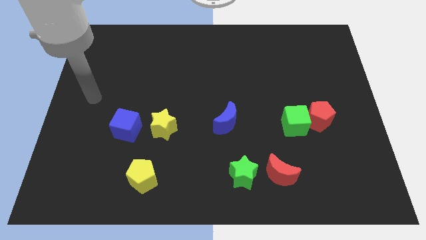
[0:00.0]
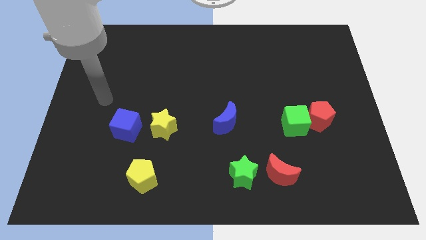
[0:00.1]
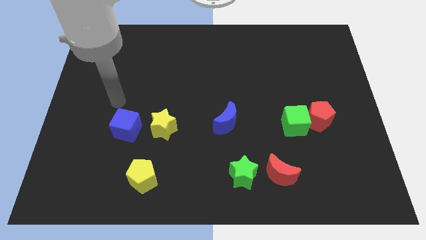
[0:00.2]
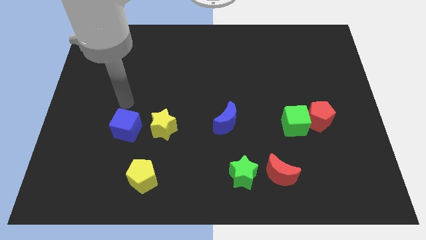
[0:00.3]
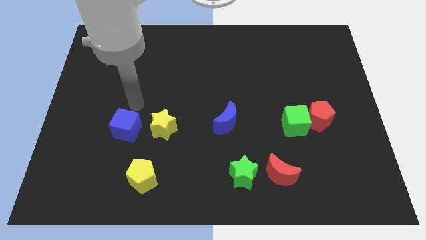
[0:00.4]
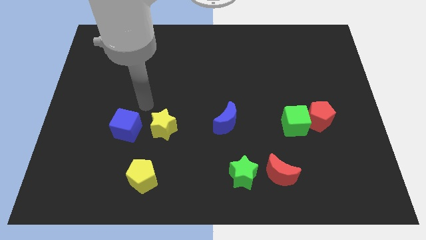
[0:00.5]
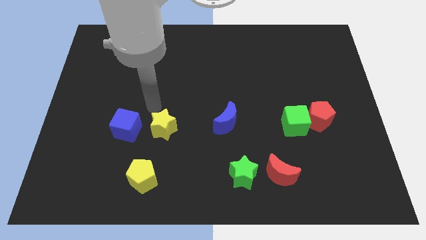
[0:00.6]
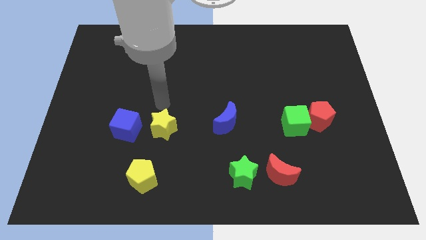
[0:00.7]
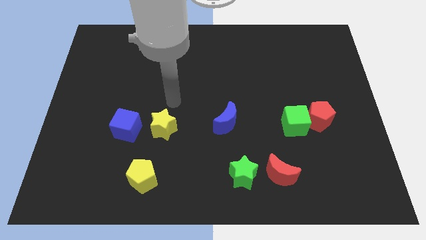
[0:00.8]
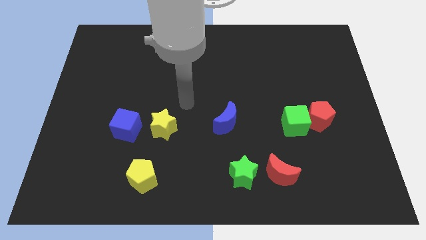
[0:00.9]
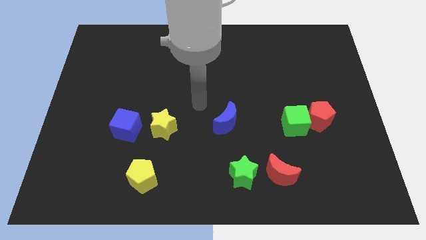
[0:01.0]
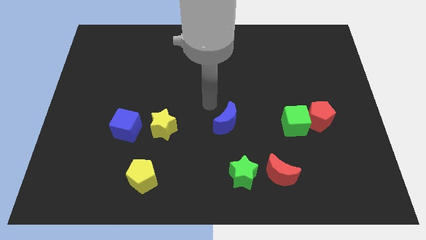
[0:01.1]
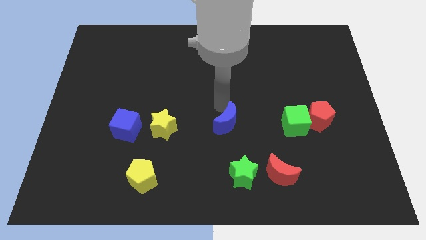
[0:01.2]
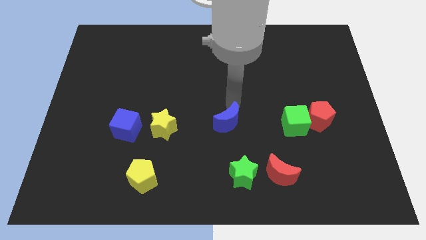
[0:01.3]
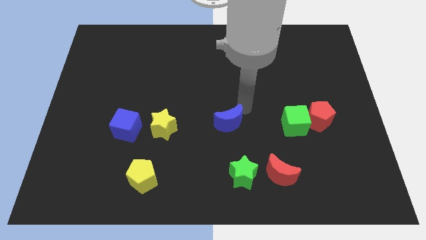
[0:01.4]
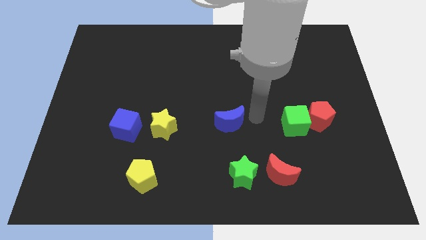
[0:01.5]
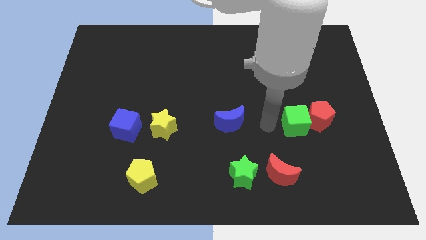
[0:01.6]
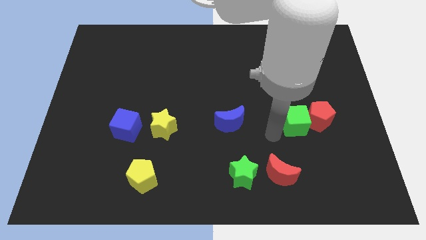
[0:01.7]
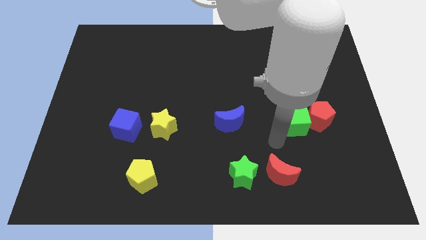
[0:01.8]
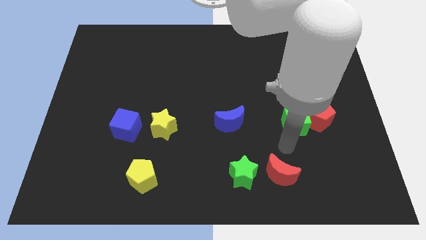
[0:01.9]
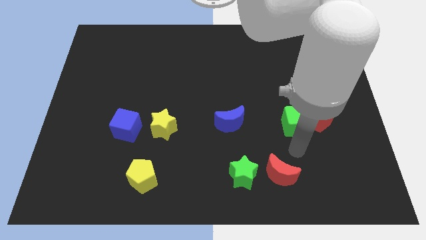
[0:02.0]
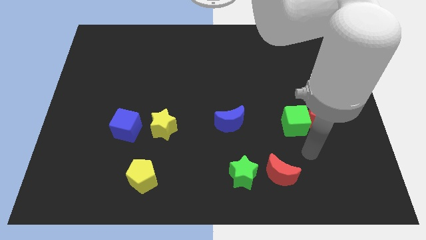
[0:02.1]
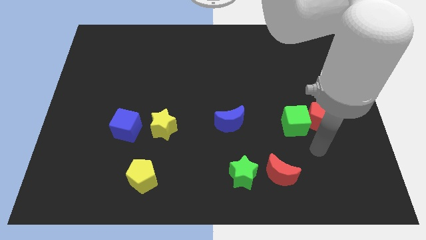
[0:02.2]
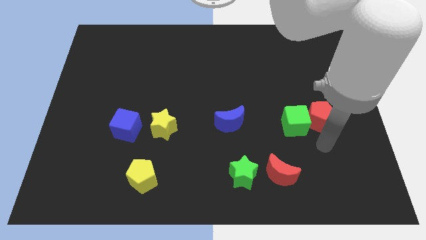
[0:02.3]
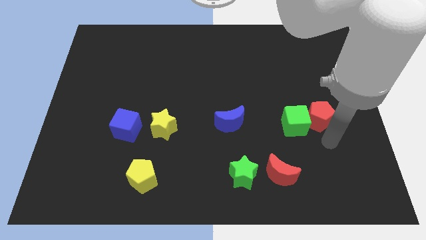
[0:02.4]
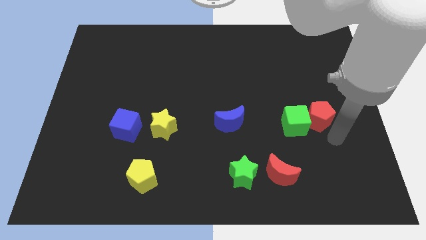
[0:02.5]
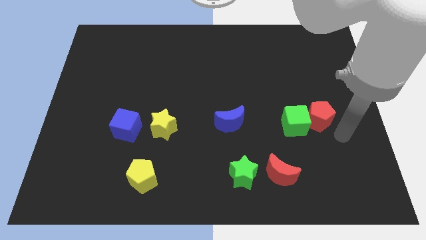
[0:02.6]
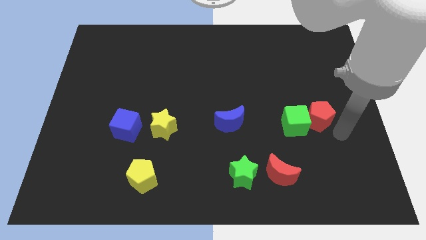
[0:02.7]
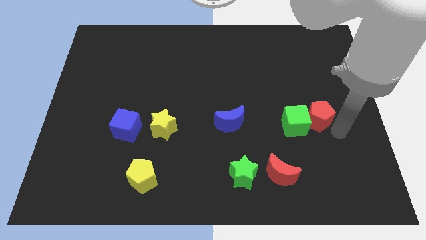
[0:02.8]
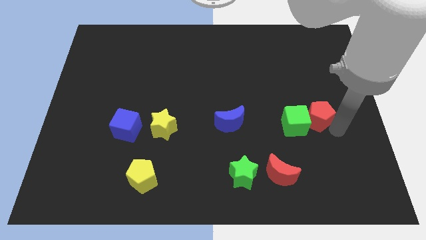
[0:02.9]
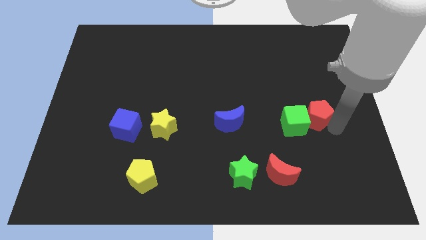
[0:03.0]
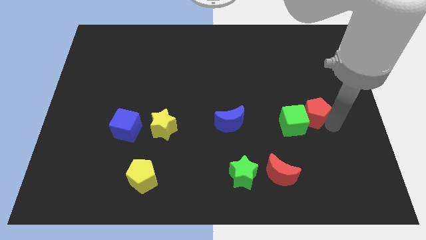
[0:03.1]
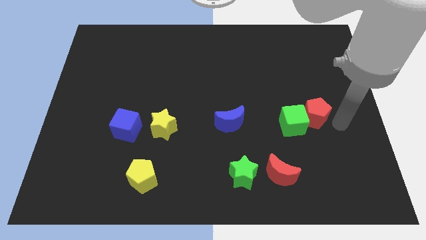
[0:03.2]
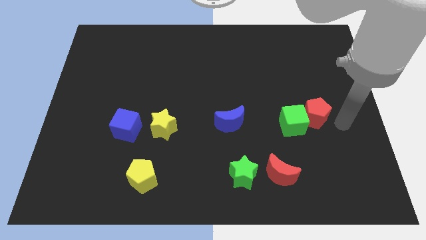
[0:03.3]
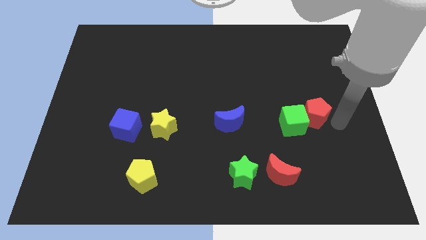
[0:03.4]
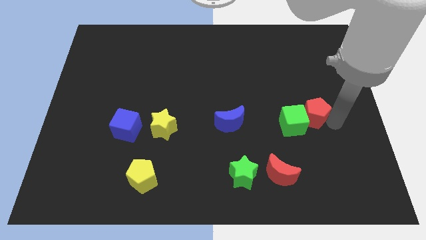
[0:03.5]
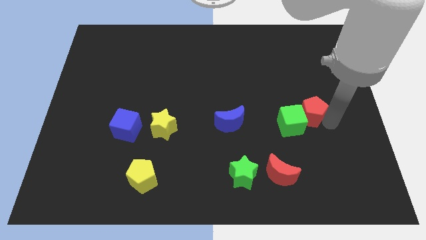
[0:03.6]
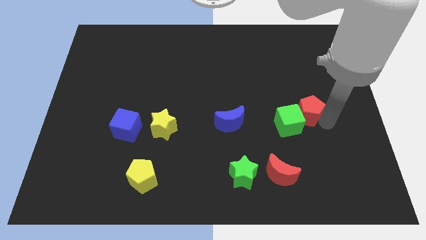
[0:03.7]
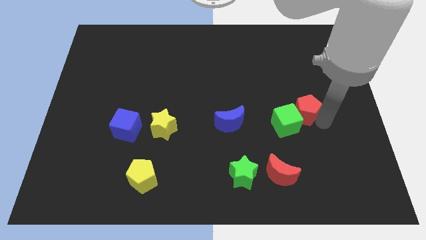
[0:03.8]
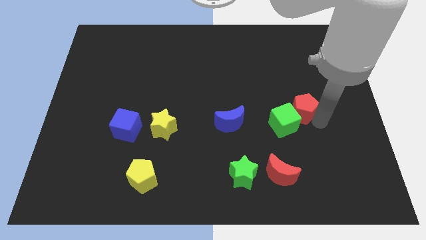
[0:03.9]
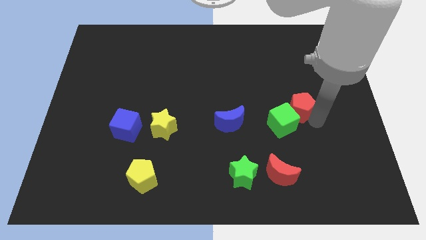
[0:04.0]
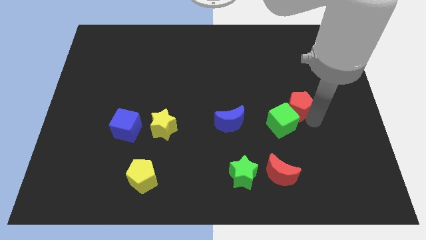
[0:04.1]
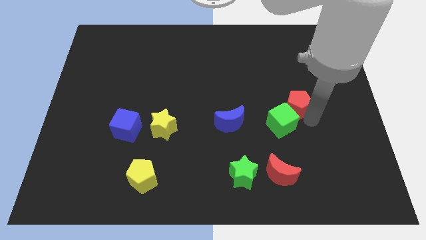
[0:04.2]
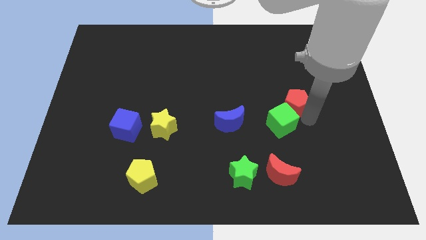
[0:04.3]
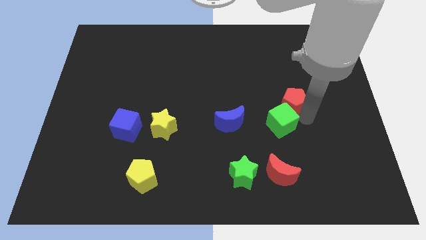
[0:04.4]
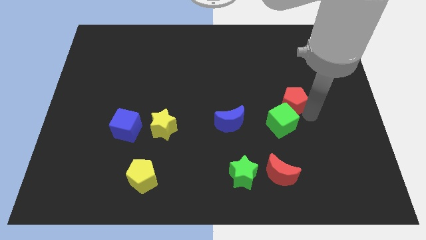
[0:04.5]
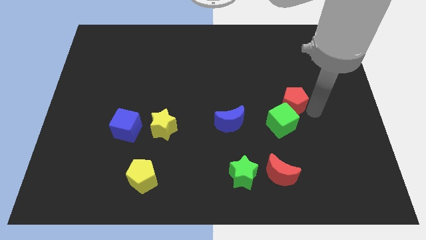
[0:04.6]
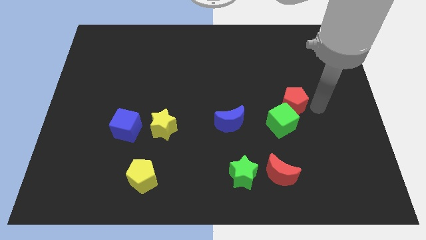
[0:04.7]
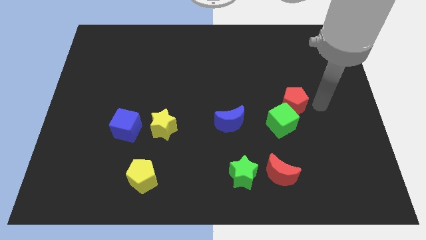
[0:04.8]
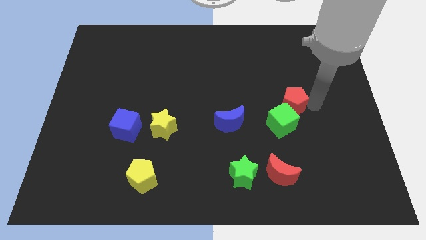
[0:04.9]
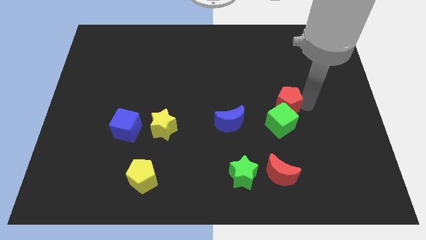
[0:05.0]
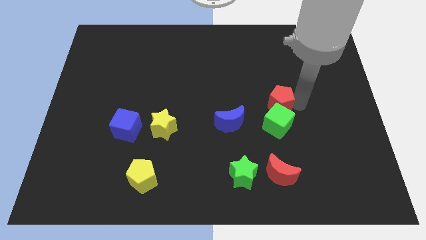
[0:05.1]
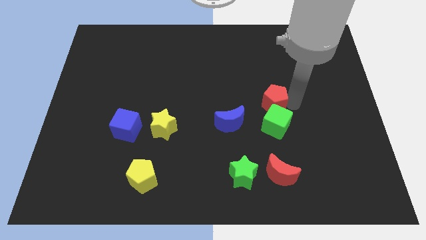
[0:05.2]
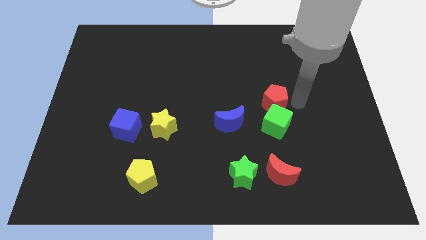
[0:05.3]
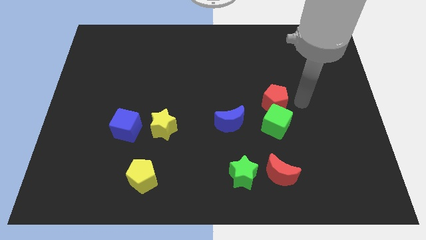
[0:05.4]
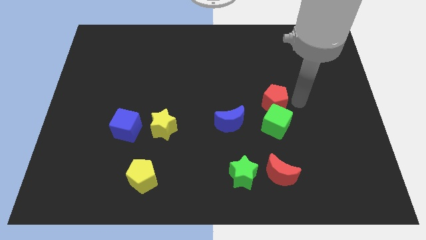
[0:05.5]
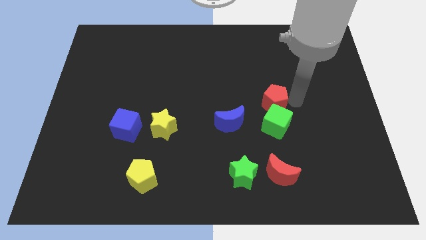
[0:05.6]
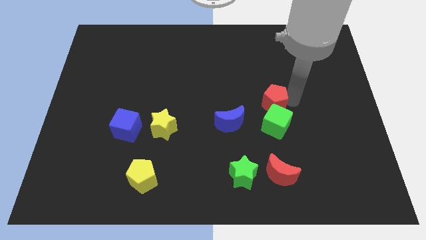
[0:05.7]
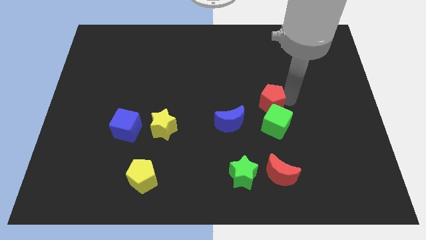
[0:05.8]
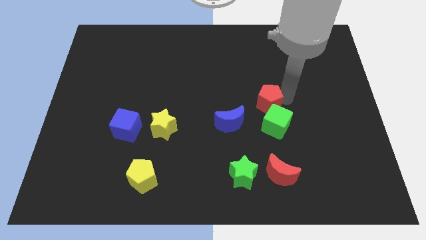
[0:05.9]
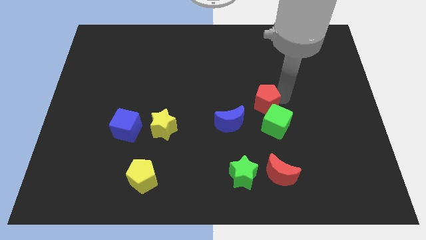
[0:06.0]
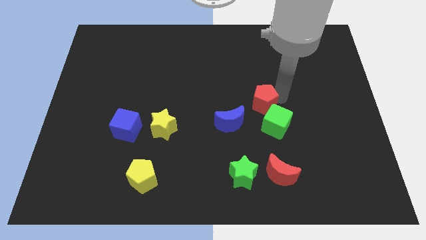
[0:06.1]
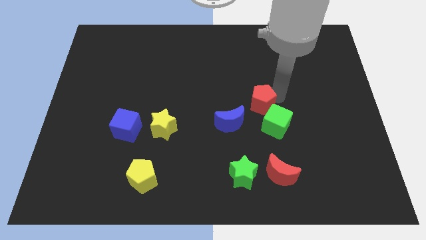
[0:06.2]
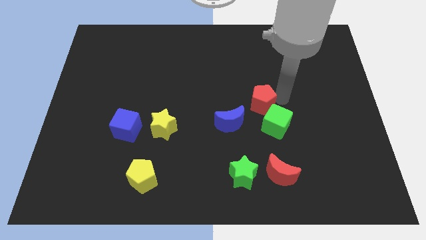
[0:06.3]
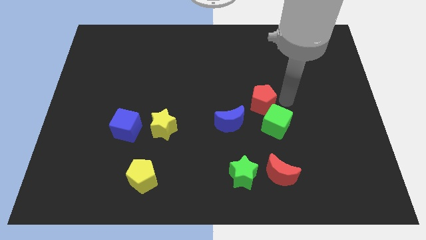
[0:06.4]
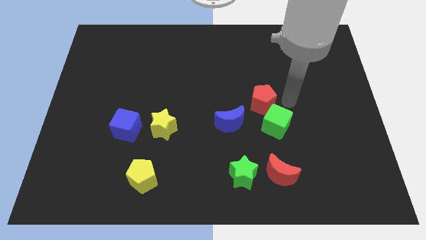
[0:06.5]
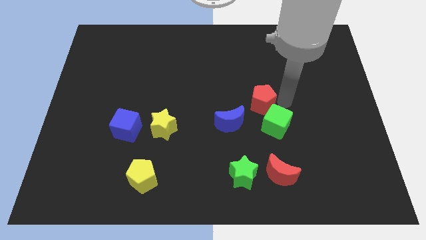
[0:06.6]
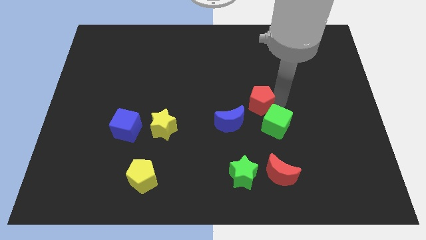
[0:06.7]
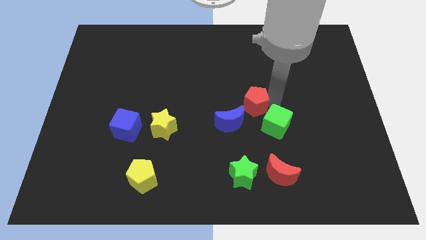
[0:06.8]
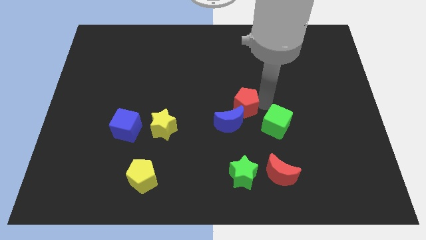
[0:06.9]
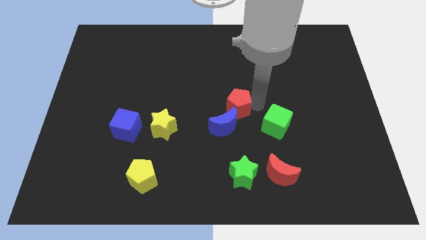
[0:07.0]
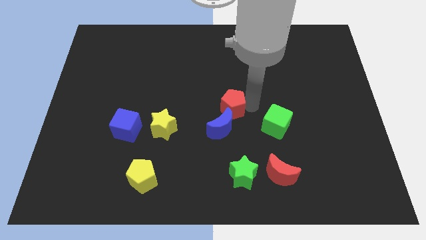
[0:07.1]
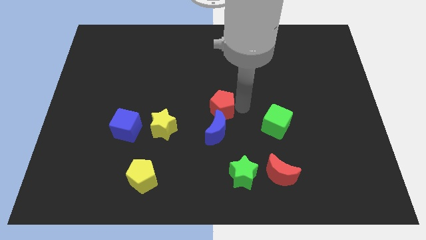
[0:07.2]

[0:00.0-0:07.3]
push the red pentagon left

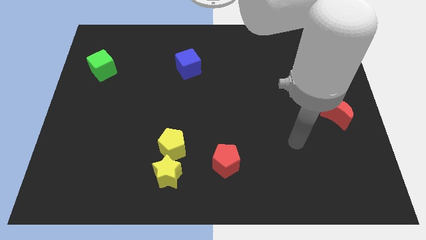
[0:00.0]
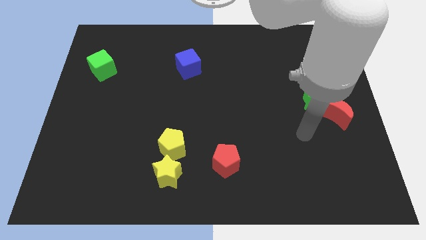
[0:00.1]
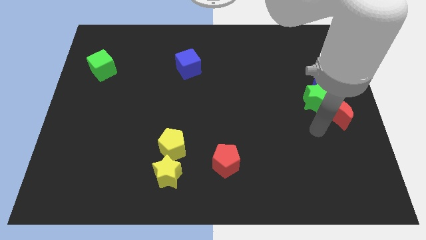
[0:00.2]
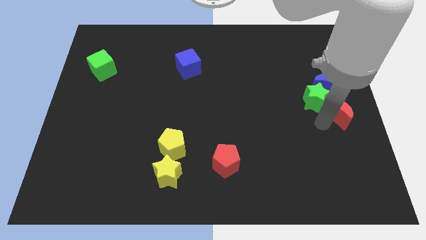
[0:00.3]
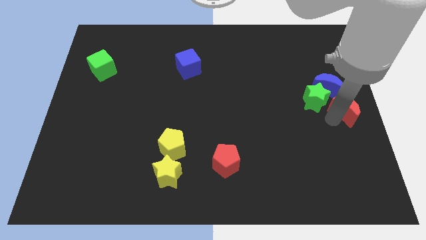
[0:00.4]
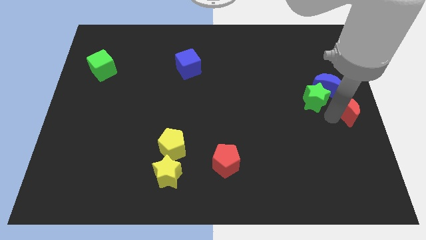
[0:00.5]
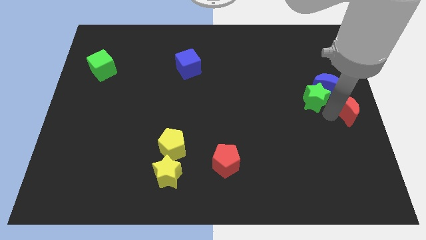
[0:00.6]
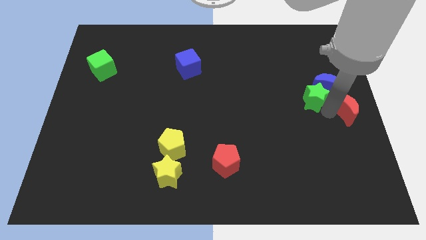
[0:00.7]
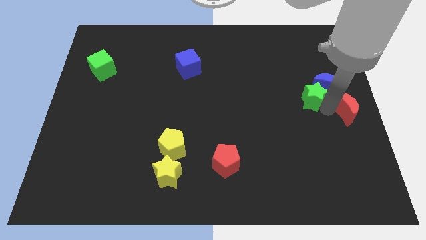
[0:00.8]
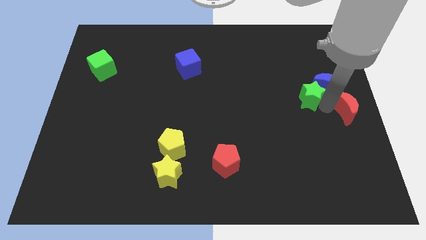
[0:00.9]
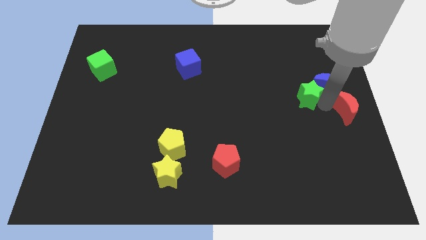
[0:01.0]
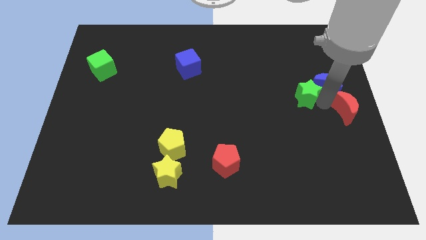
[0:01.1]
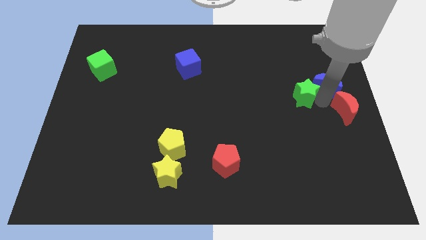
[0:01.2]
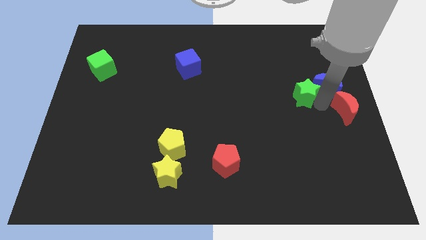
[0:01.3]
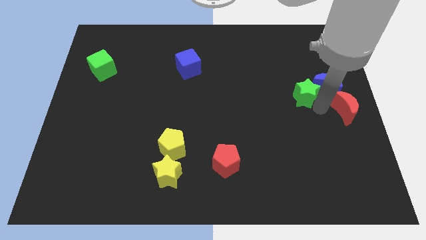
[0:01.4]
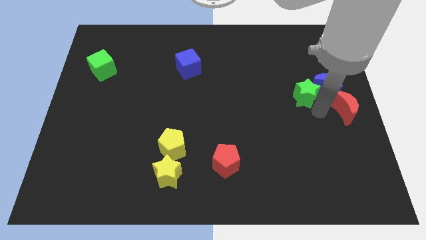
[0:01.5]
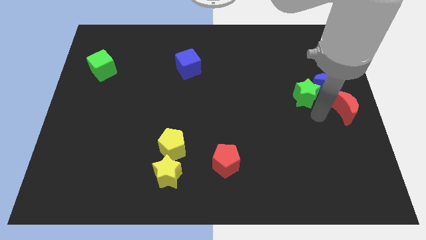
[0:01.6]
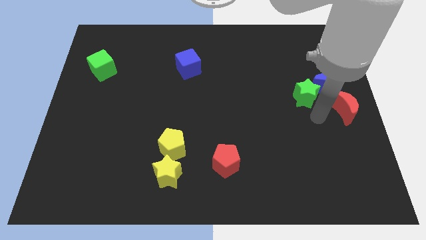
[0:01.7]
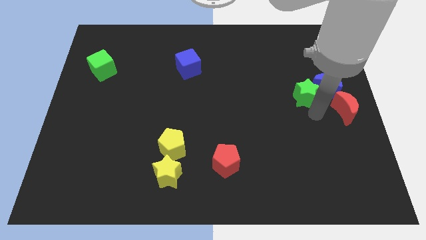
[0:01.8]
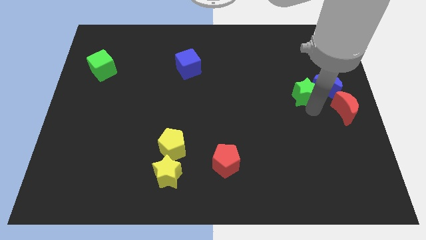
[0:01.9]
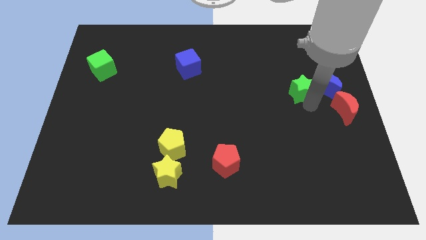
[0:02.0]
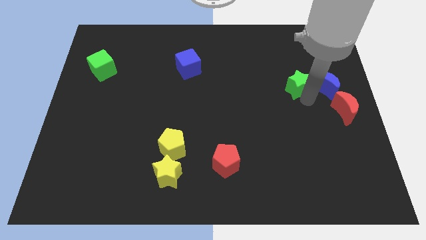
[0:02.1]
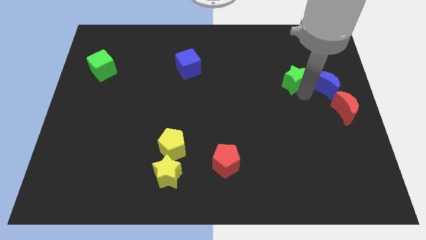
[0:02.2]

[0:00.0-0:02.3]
move the green star up and then left a little bit
